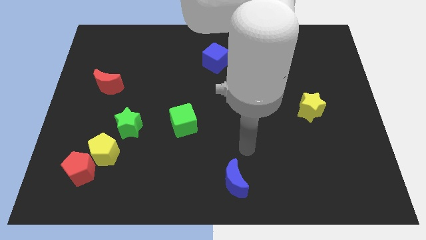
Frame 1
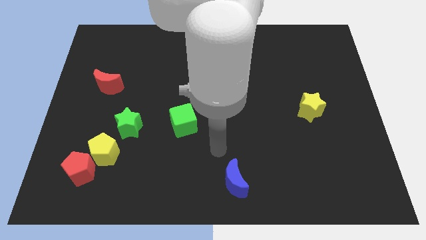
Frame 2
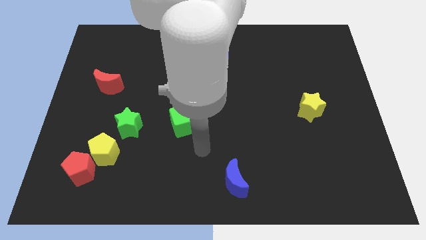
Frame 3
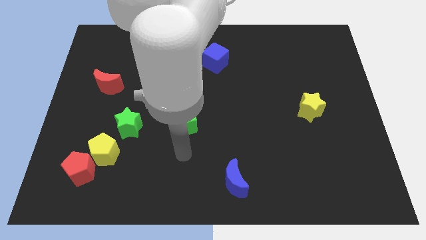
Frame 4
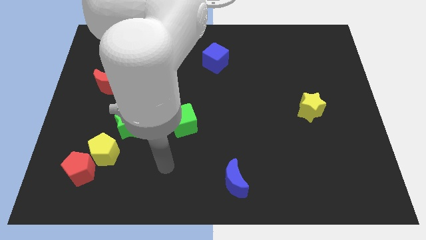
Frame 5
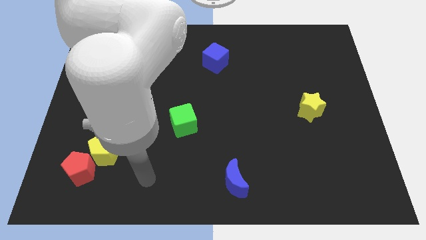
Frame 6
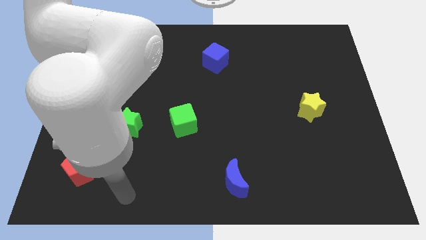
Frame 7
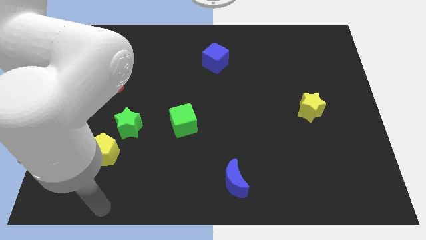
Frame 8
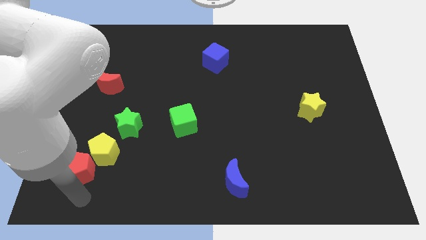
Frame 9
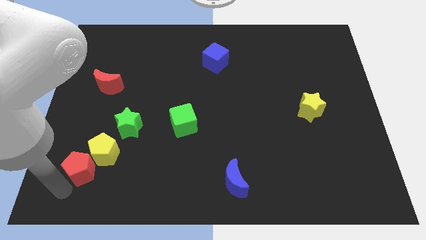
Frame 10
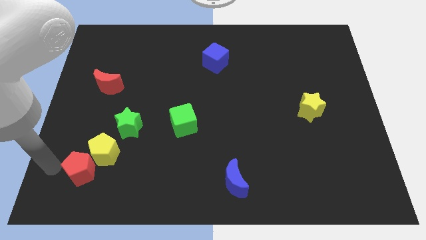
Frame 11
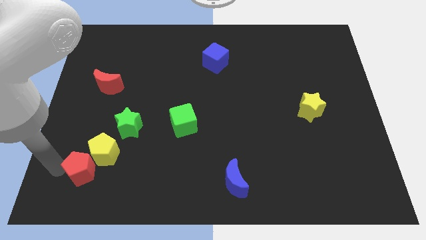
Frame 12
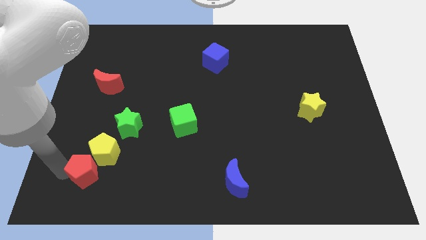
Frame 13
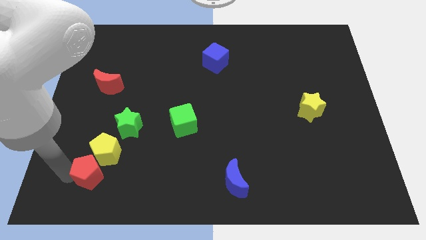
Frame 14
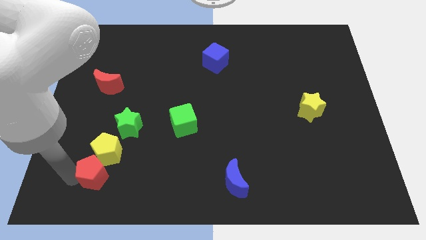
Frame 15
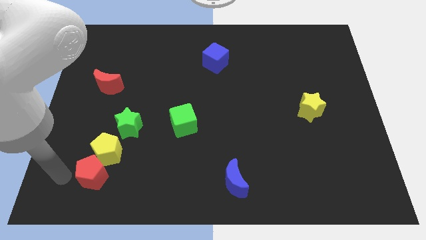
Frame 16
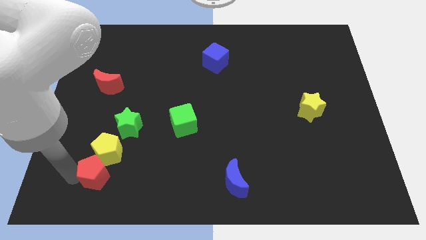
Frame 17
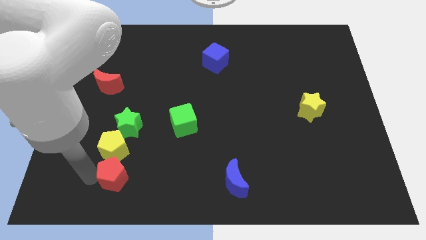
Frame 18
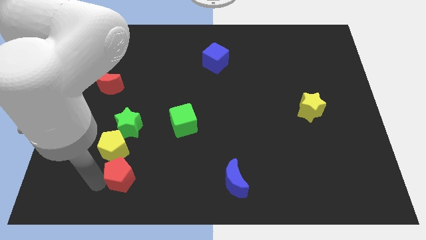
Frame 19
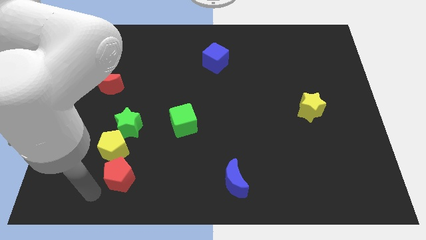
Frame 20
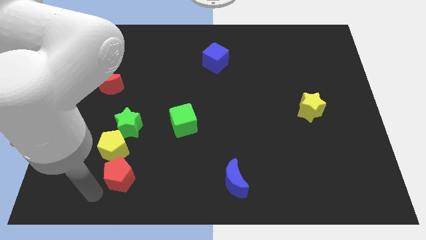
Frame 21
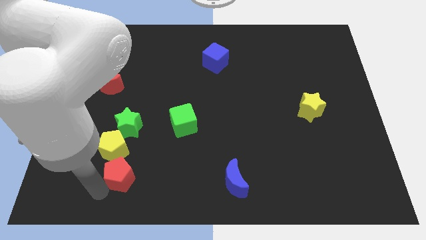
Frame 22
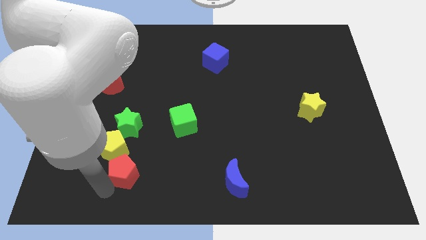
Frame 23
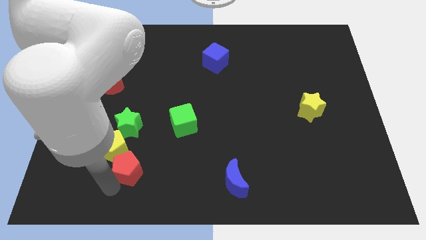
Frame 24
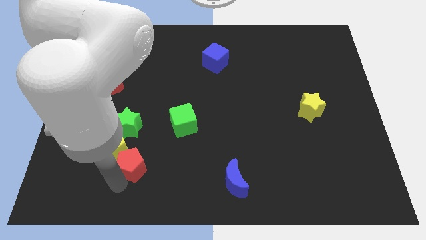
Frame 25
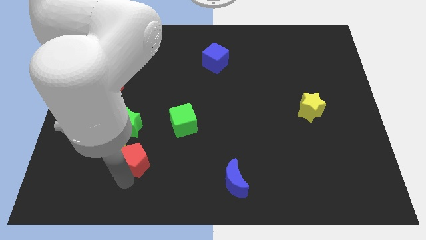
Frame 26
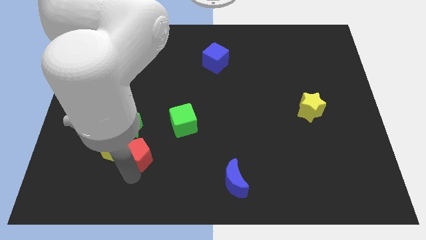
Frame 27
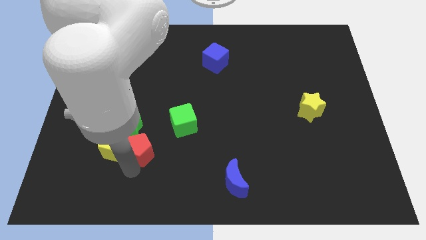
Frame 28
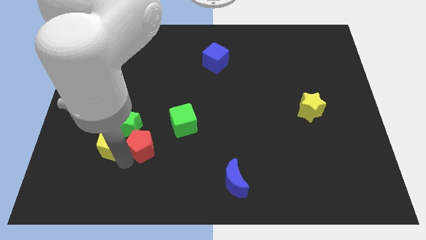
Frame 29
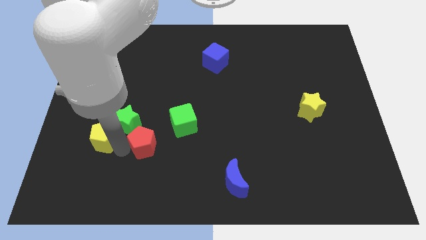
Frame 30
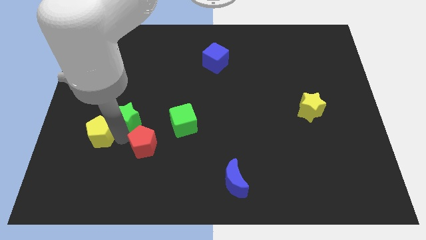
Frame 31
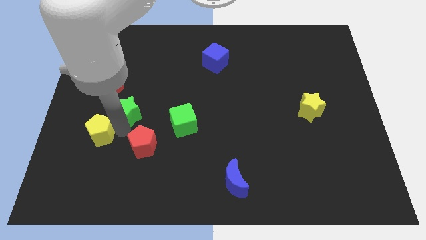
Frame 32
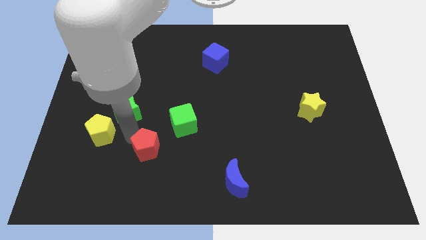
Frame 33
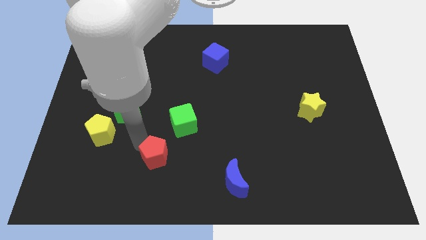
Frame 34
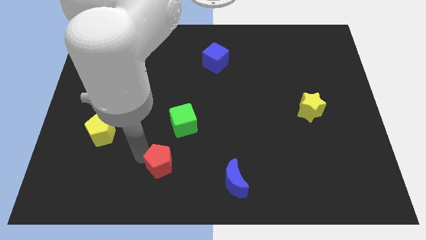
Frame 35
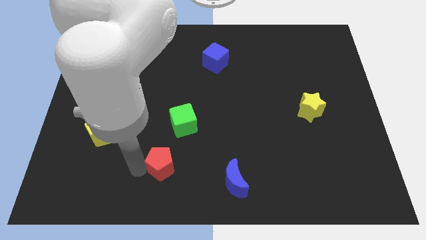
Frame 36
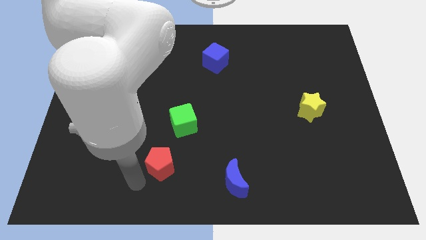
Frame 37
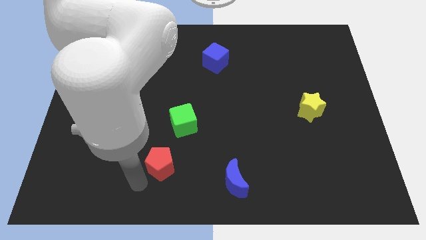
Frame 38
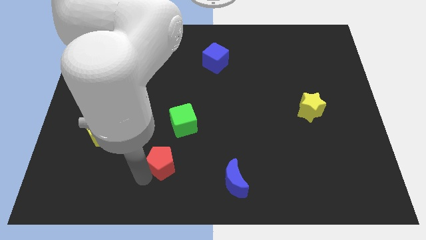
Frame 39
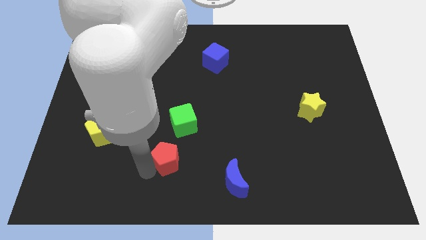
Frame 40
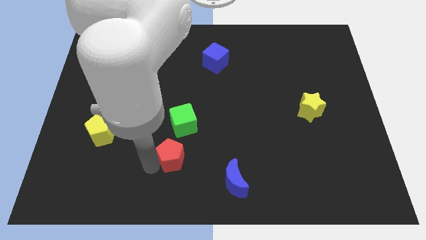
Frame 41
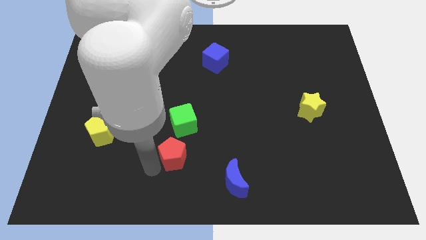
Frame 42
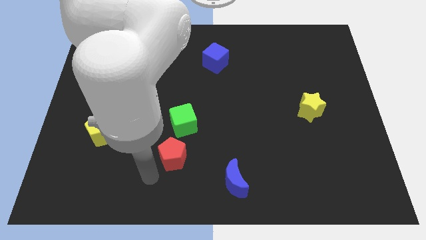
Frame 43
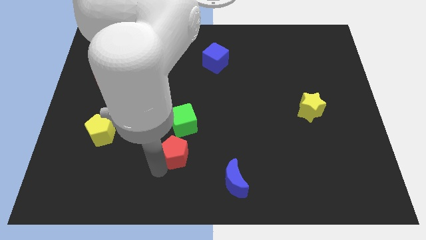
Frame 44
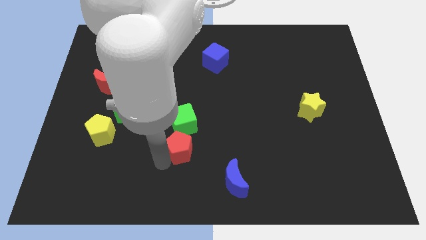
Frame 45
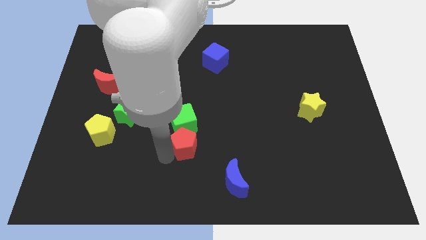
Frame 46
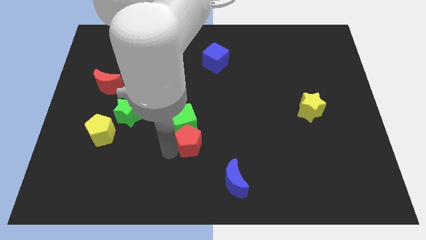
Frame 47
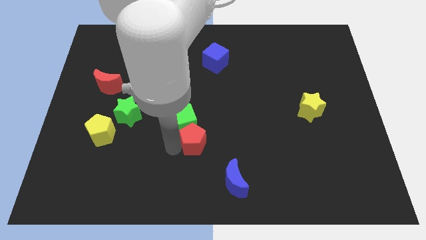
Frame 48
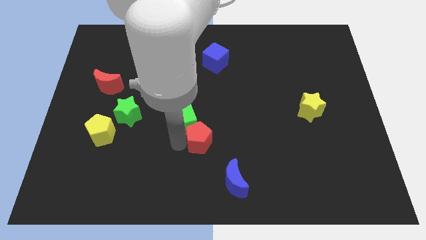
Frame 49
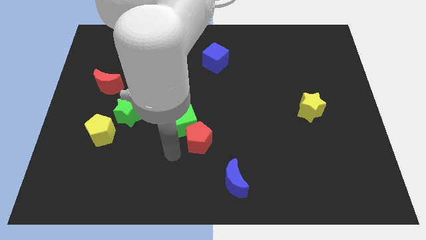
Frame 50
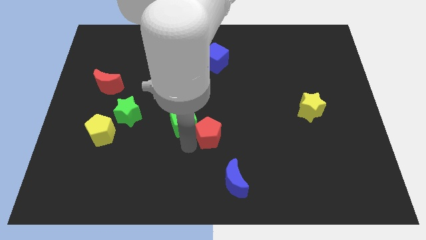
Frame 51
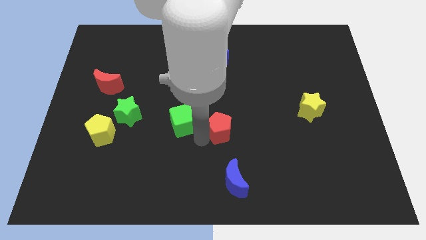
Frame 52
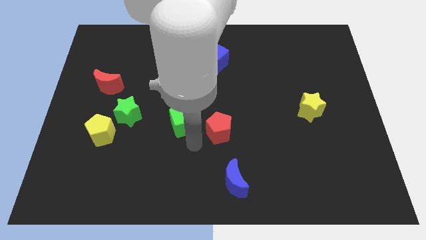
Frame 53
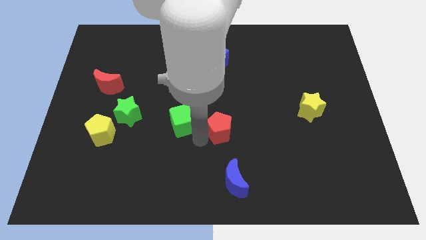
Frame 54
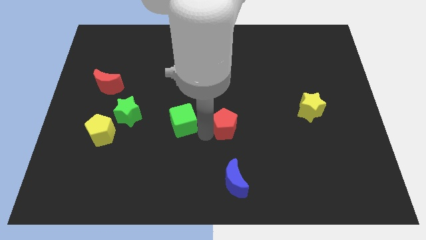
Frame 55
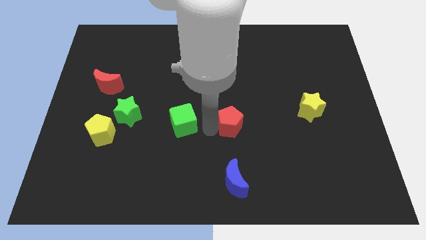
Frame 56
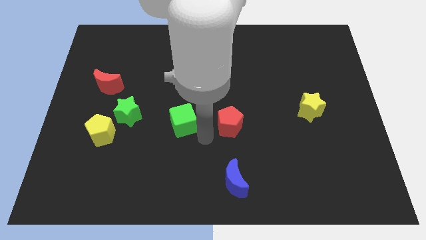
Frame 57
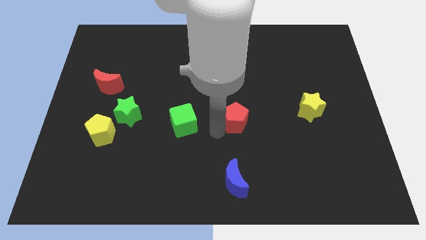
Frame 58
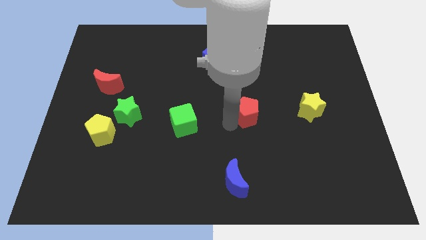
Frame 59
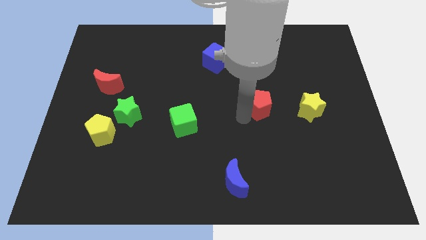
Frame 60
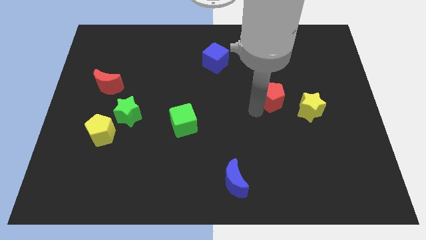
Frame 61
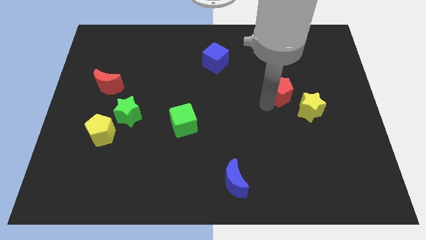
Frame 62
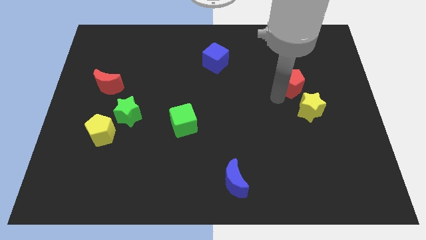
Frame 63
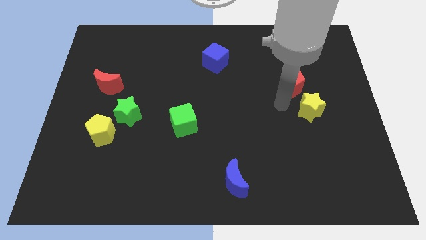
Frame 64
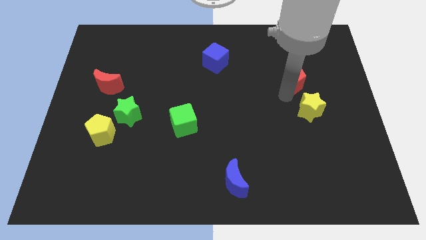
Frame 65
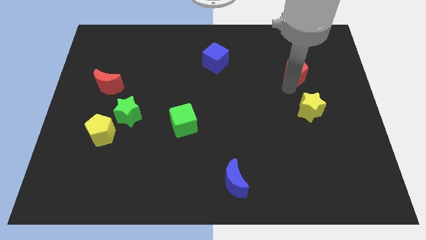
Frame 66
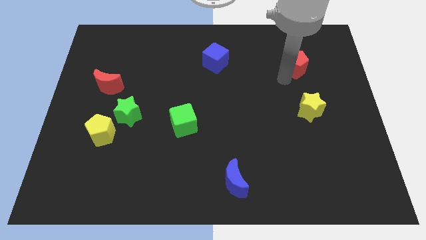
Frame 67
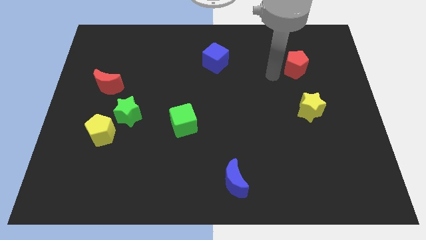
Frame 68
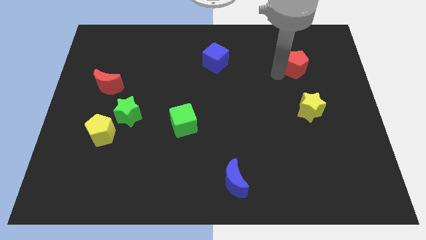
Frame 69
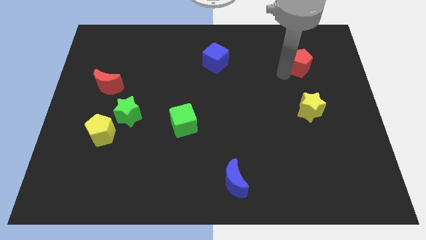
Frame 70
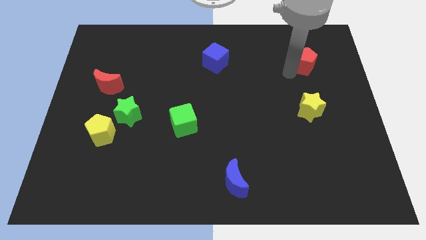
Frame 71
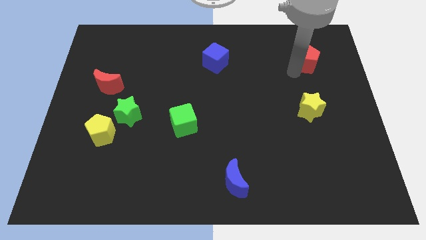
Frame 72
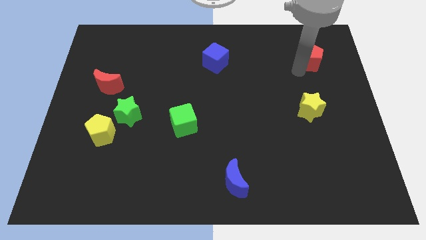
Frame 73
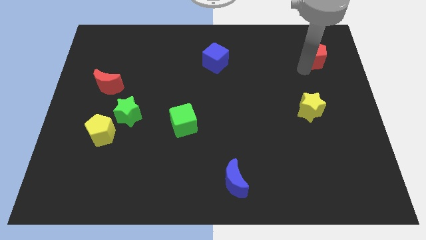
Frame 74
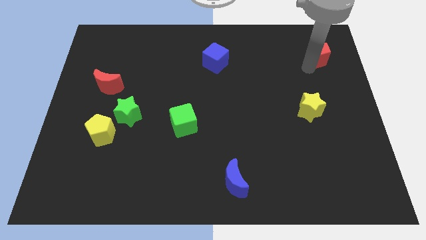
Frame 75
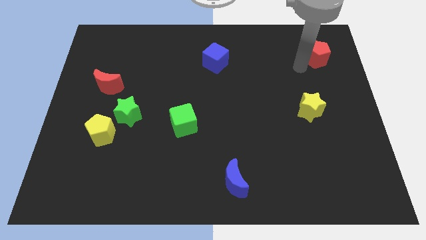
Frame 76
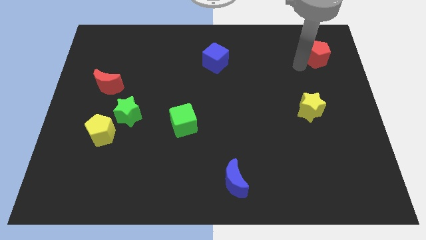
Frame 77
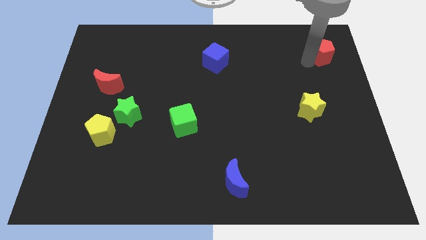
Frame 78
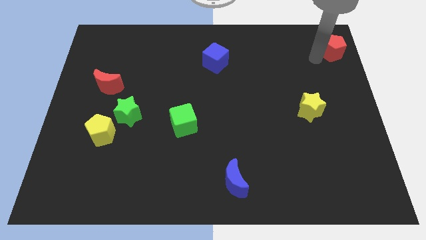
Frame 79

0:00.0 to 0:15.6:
put the red pentagon to the upper right corner
